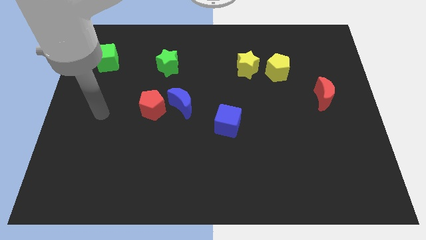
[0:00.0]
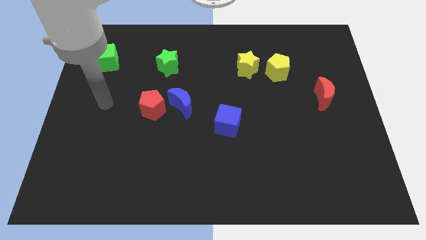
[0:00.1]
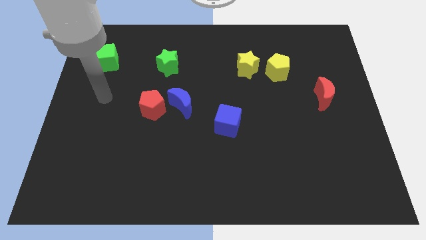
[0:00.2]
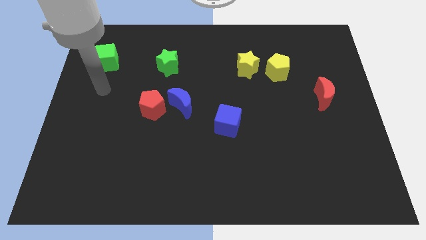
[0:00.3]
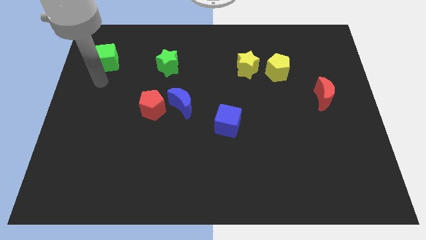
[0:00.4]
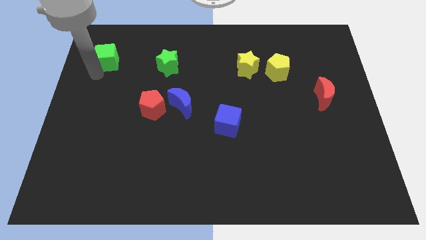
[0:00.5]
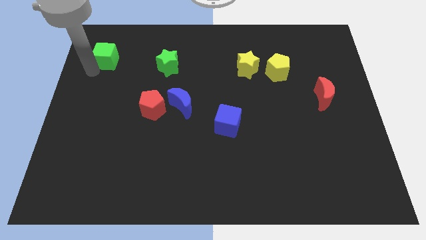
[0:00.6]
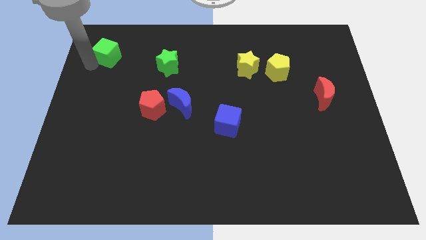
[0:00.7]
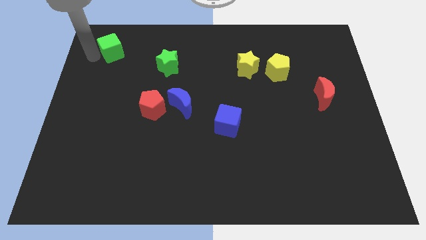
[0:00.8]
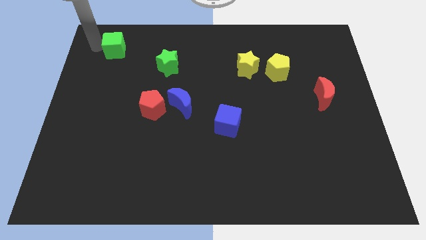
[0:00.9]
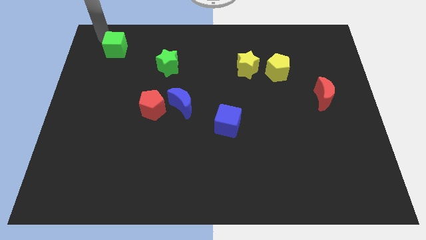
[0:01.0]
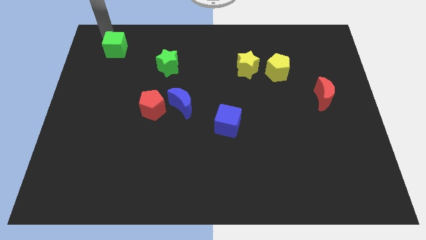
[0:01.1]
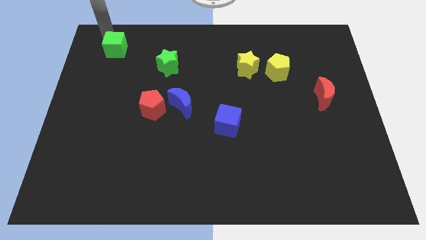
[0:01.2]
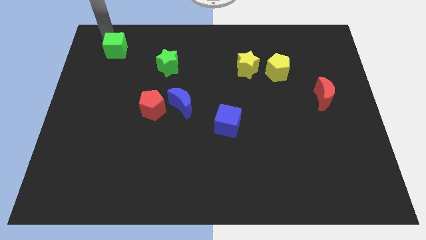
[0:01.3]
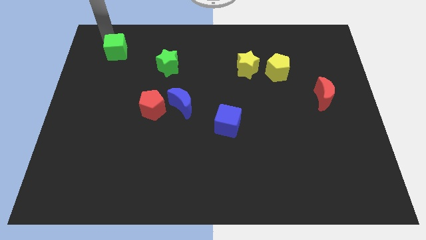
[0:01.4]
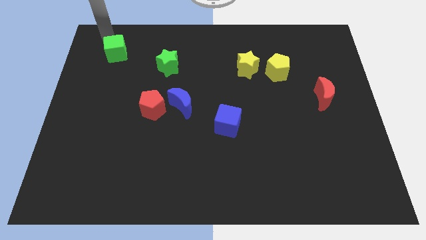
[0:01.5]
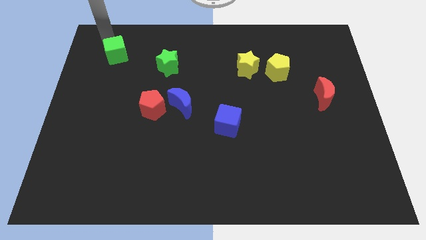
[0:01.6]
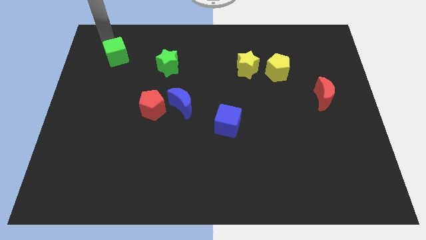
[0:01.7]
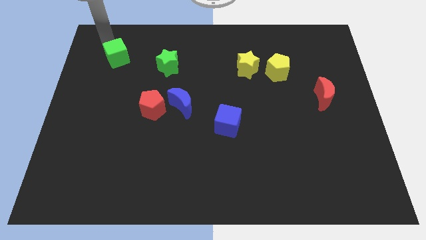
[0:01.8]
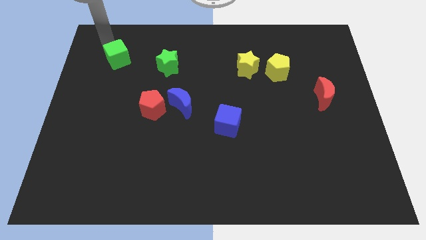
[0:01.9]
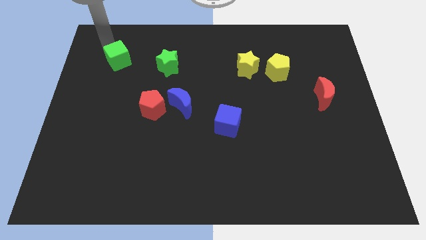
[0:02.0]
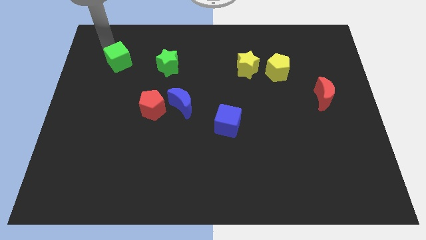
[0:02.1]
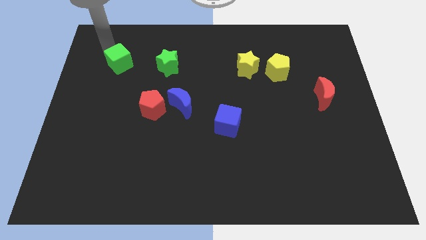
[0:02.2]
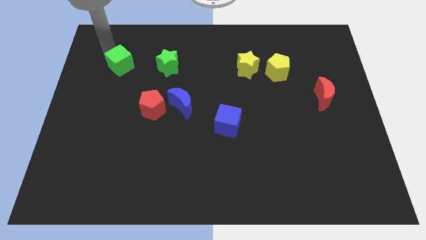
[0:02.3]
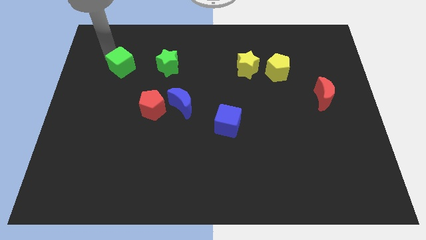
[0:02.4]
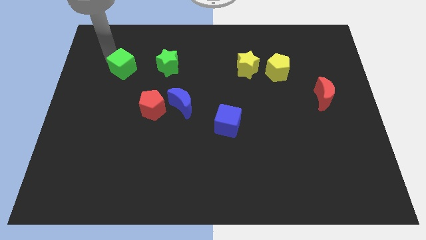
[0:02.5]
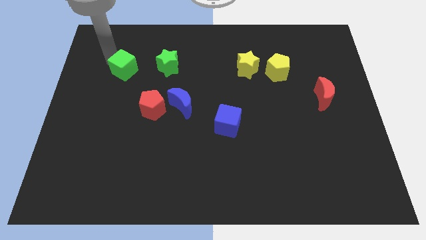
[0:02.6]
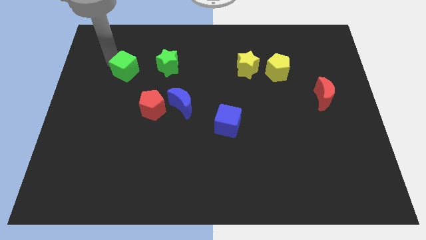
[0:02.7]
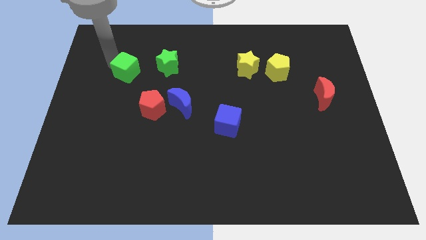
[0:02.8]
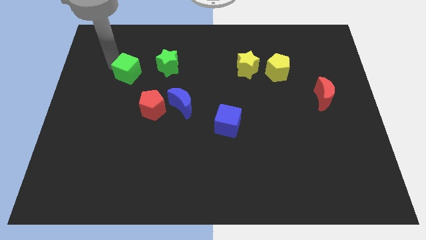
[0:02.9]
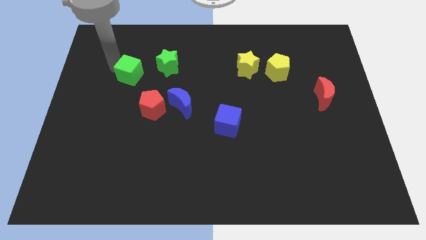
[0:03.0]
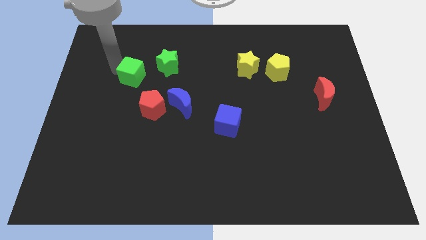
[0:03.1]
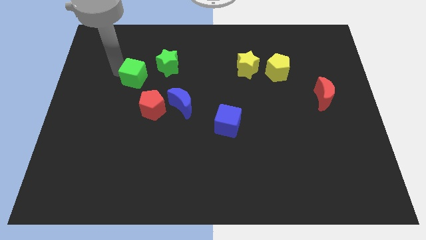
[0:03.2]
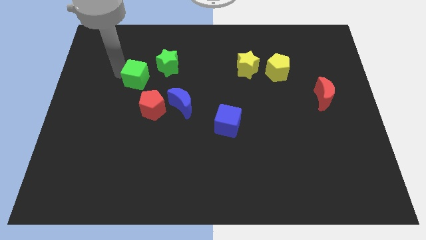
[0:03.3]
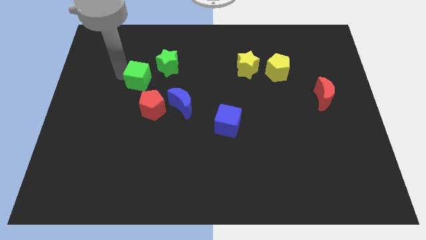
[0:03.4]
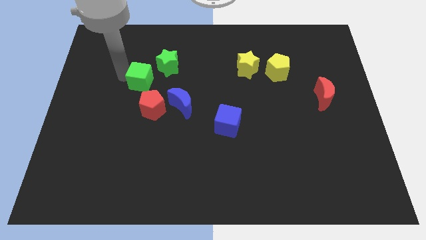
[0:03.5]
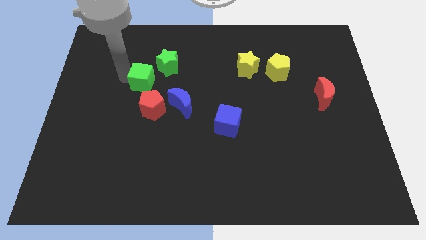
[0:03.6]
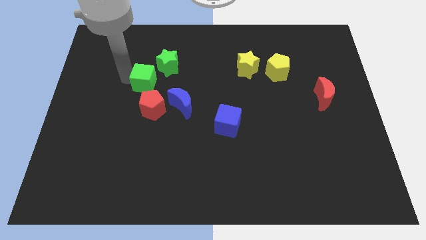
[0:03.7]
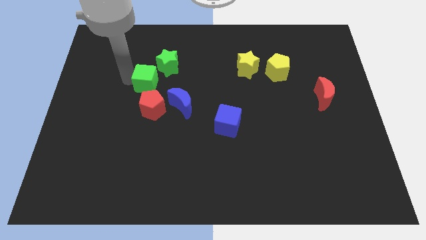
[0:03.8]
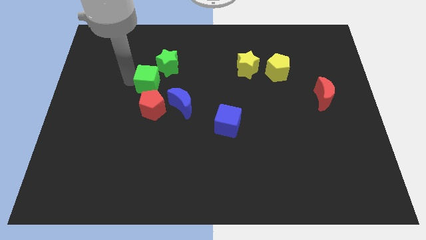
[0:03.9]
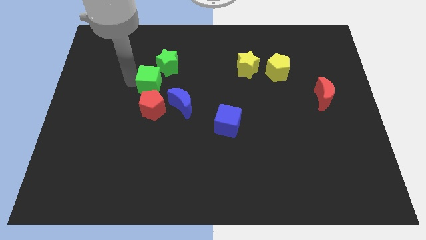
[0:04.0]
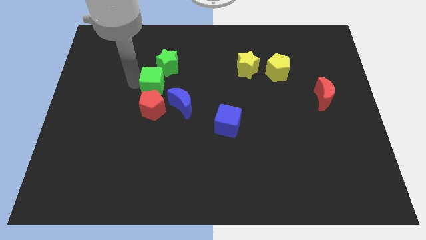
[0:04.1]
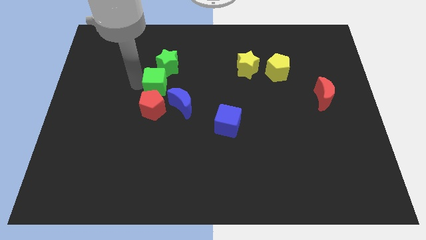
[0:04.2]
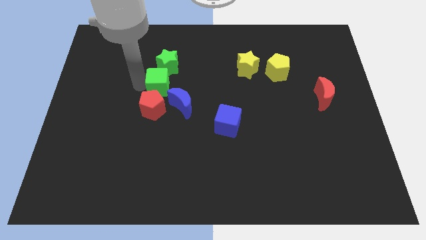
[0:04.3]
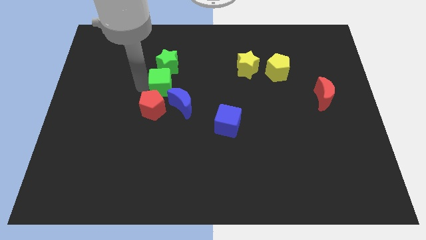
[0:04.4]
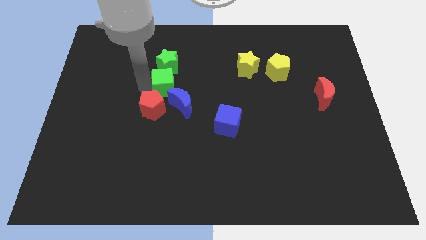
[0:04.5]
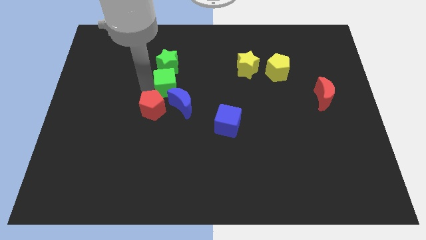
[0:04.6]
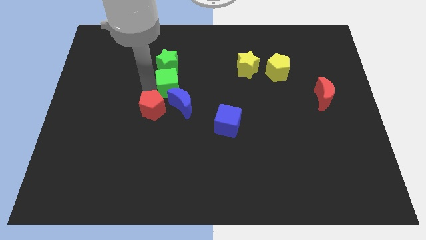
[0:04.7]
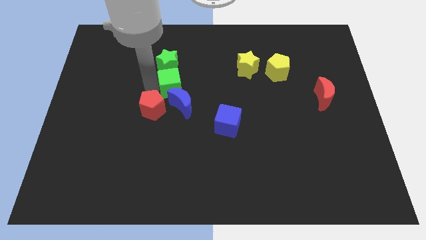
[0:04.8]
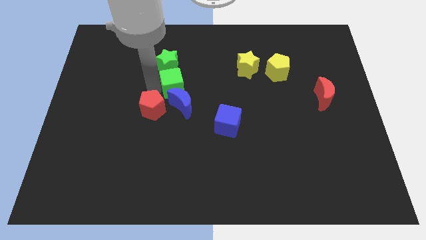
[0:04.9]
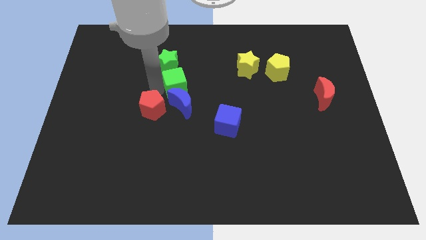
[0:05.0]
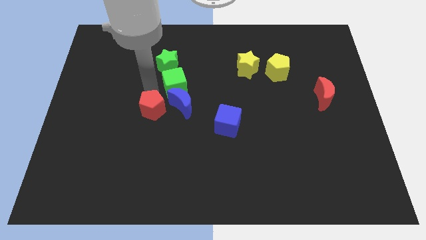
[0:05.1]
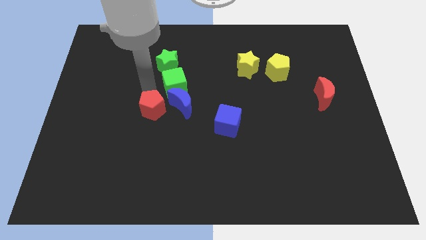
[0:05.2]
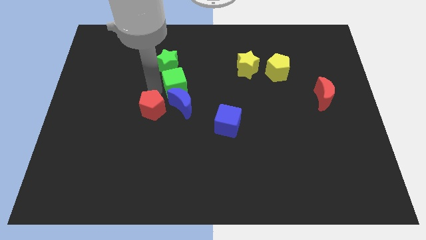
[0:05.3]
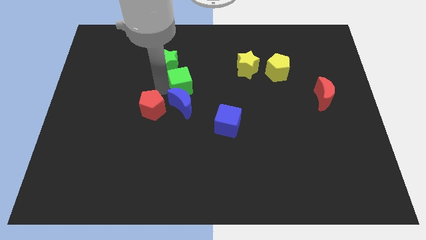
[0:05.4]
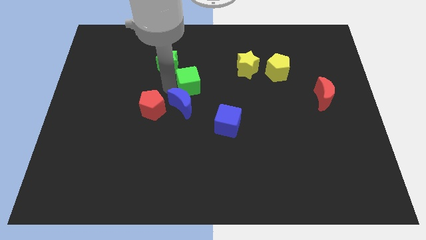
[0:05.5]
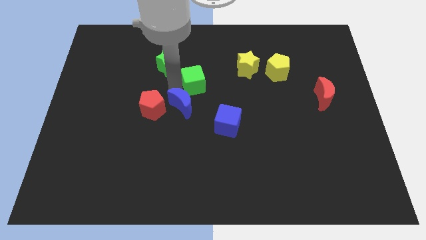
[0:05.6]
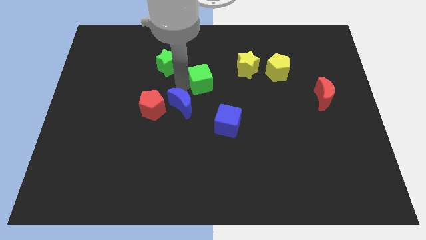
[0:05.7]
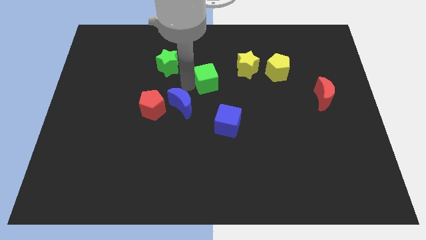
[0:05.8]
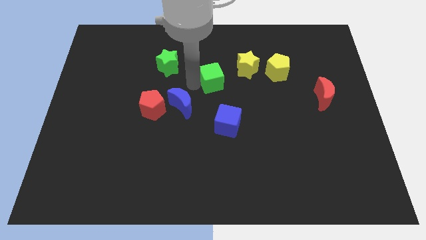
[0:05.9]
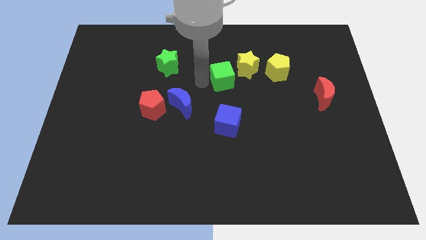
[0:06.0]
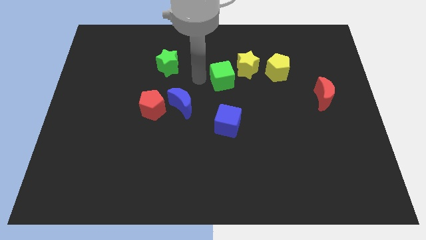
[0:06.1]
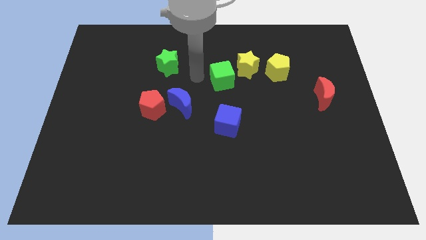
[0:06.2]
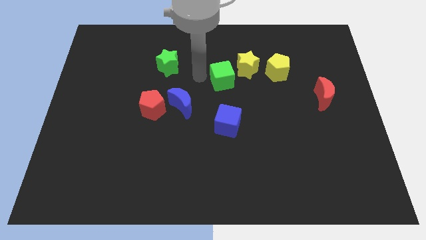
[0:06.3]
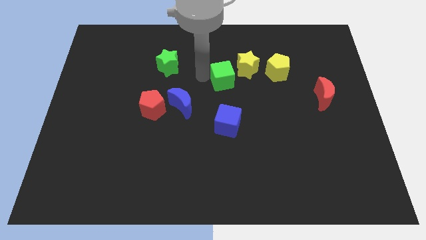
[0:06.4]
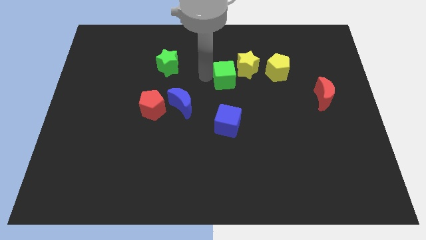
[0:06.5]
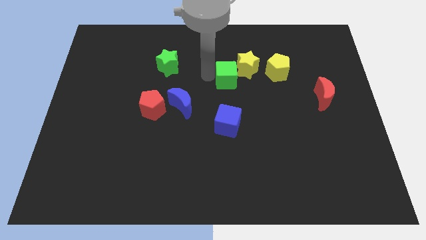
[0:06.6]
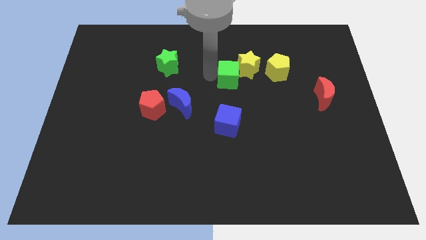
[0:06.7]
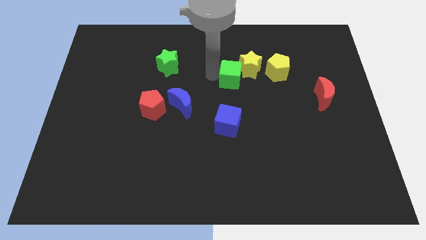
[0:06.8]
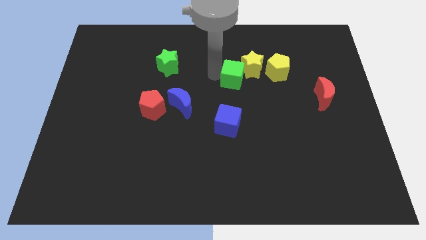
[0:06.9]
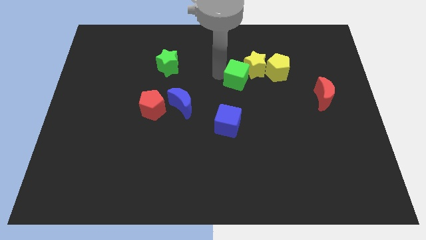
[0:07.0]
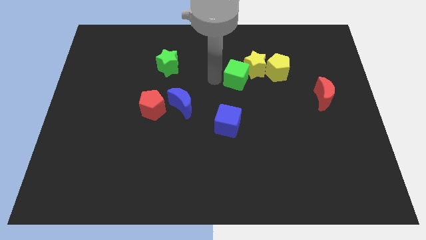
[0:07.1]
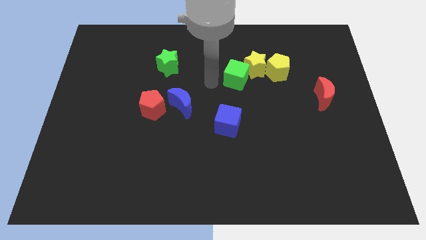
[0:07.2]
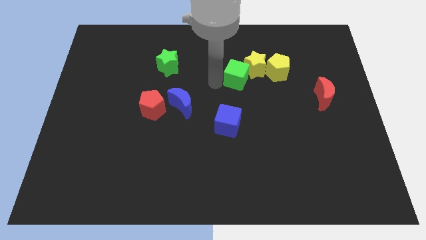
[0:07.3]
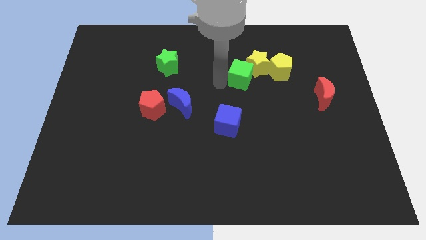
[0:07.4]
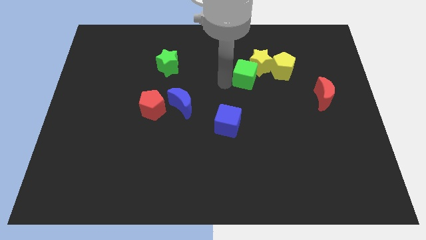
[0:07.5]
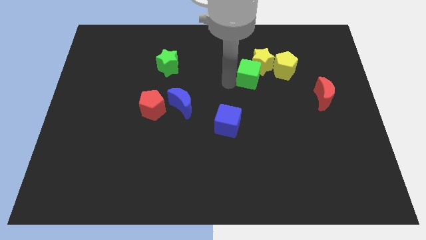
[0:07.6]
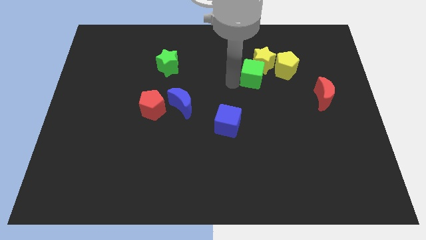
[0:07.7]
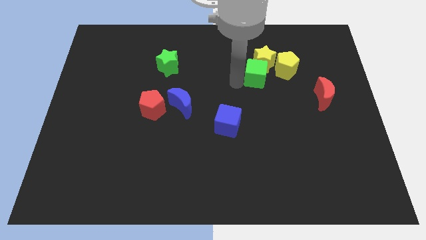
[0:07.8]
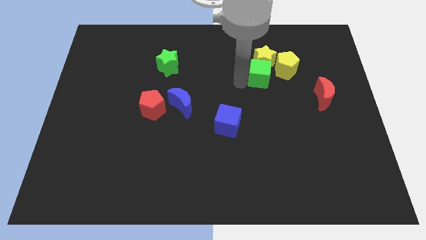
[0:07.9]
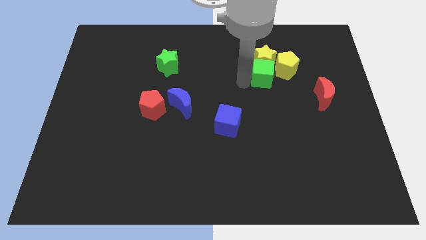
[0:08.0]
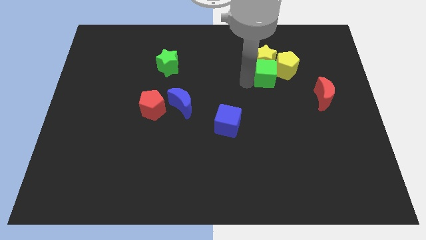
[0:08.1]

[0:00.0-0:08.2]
put the green cube to the yellow pentagon
